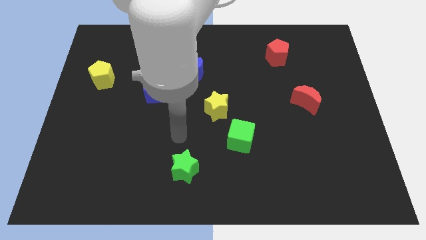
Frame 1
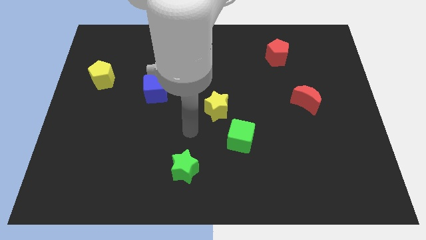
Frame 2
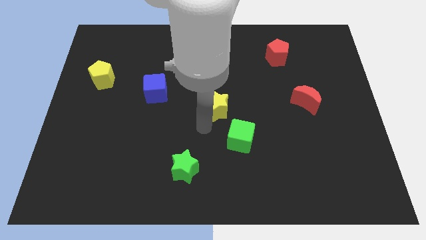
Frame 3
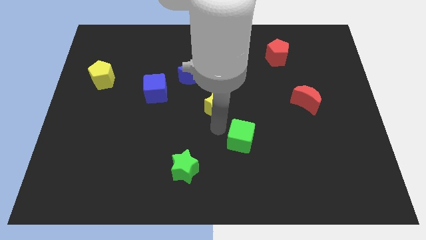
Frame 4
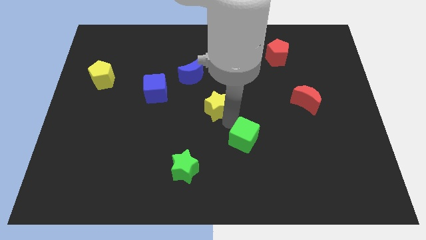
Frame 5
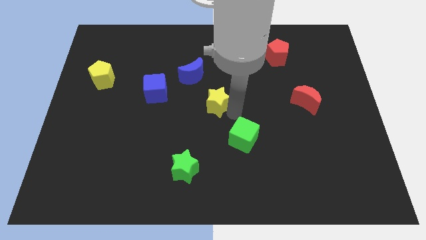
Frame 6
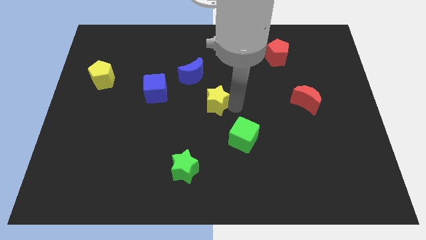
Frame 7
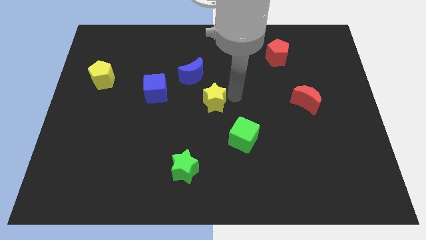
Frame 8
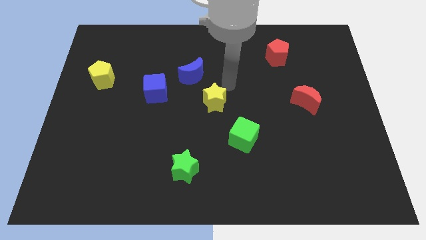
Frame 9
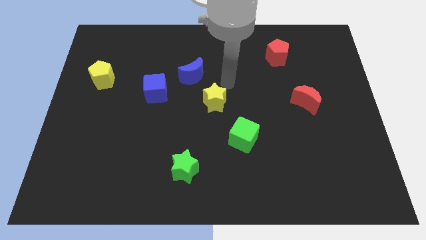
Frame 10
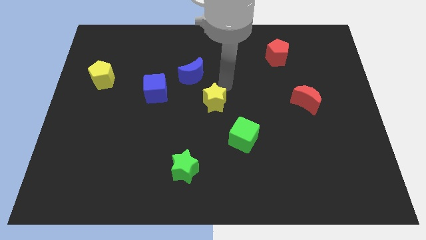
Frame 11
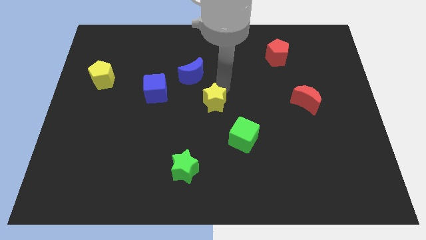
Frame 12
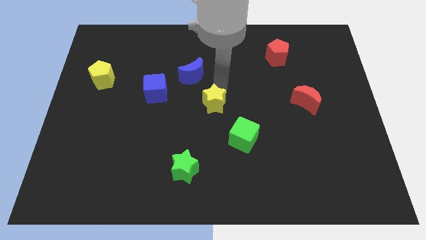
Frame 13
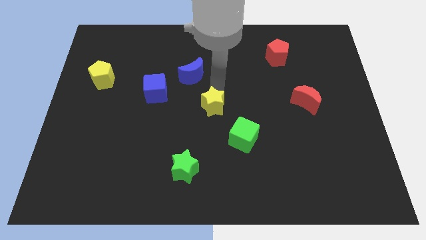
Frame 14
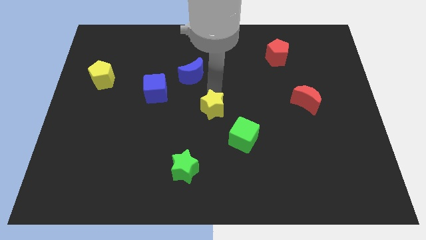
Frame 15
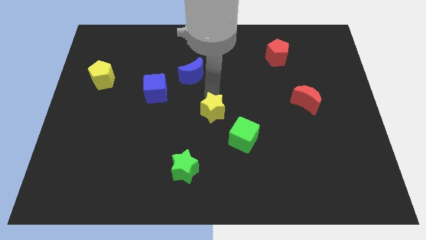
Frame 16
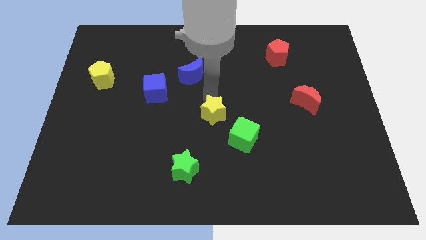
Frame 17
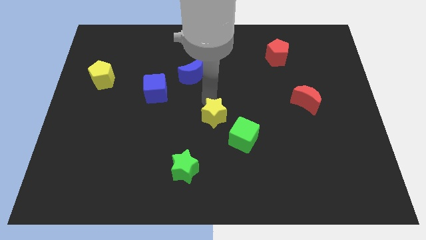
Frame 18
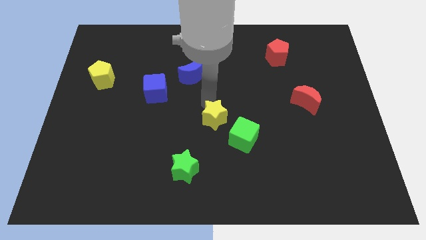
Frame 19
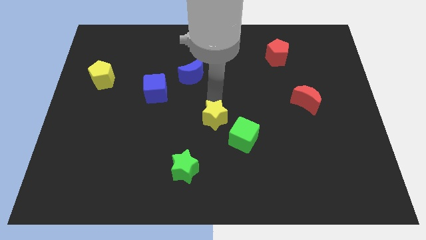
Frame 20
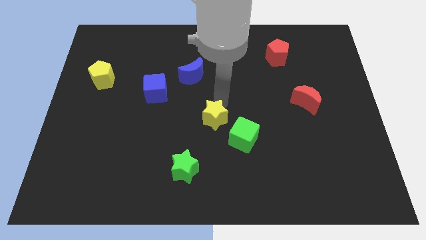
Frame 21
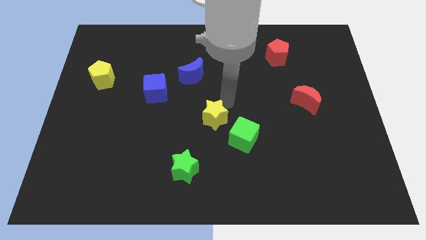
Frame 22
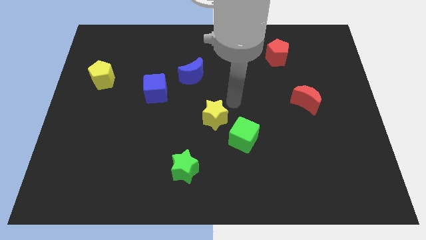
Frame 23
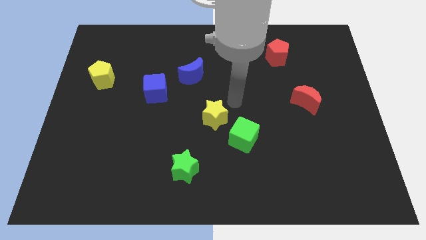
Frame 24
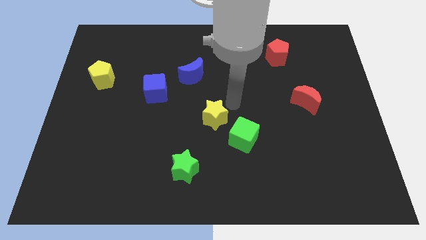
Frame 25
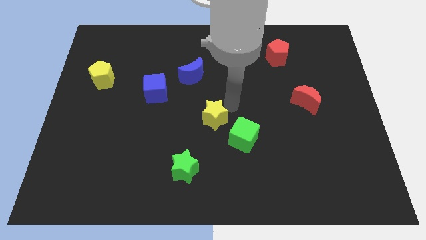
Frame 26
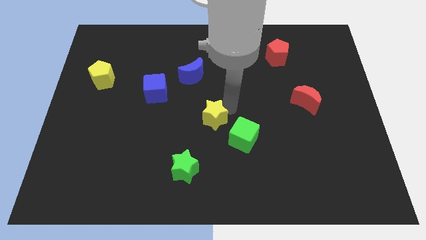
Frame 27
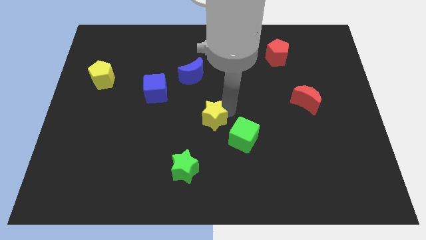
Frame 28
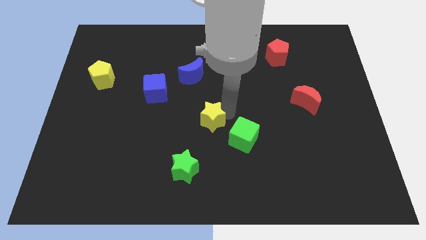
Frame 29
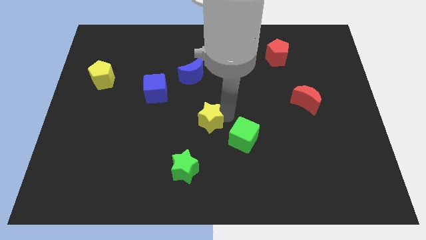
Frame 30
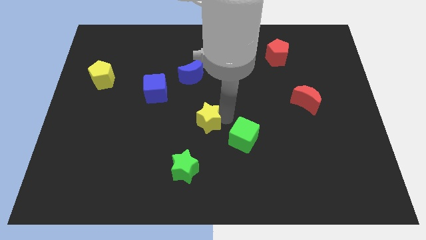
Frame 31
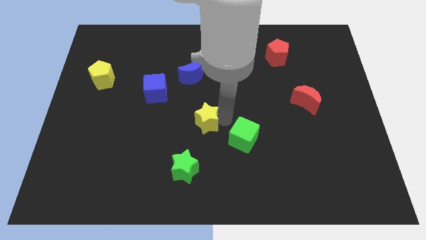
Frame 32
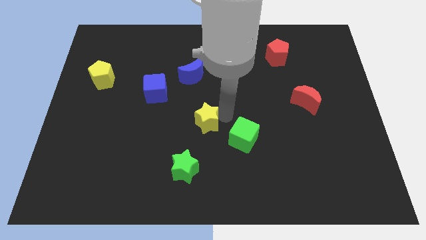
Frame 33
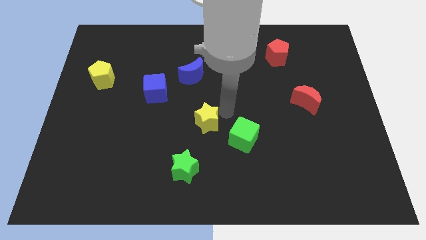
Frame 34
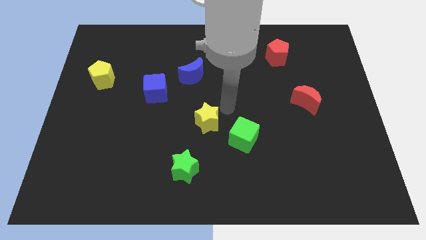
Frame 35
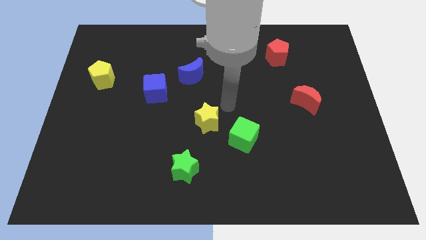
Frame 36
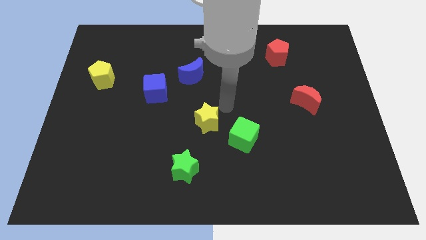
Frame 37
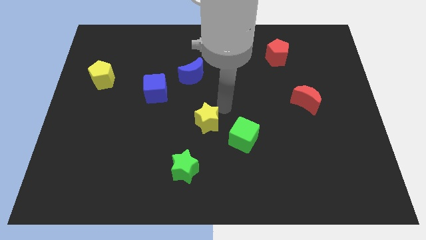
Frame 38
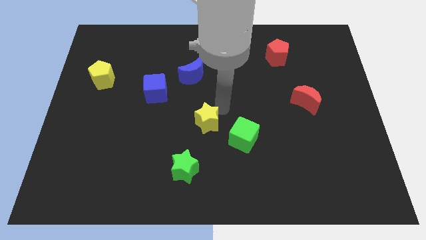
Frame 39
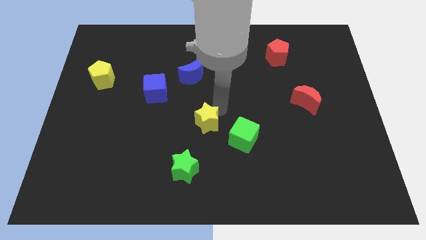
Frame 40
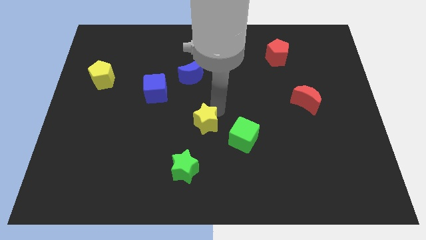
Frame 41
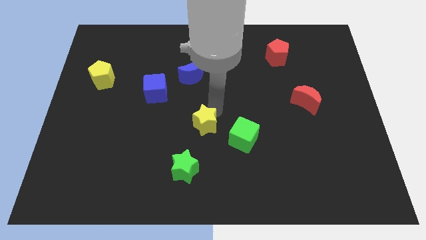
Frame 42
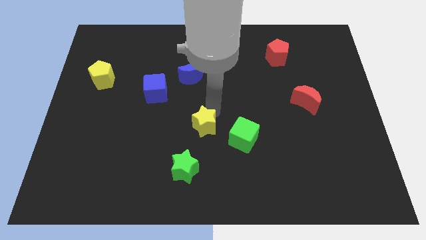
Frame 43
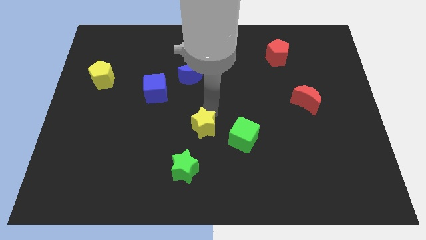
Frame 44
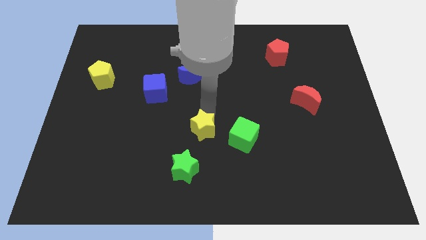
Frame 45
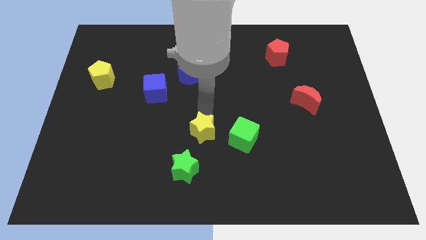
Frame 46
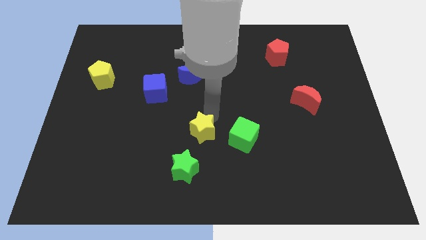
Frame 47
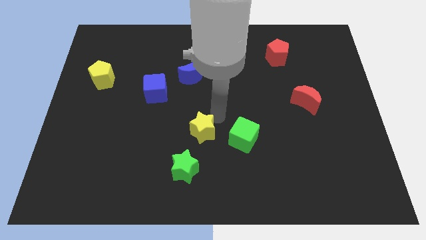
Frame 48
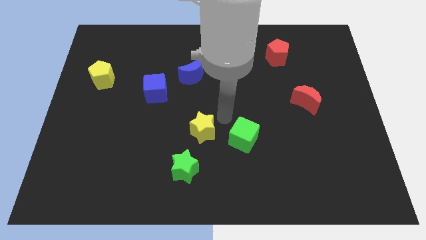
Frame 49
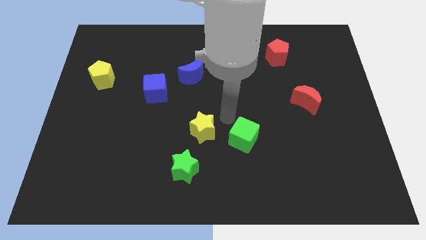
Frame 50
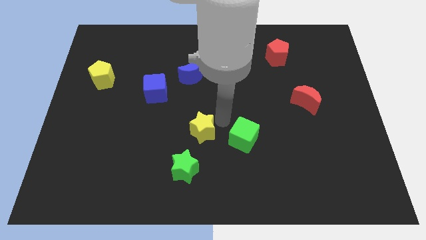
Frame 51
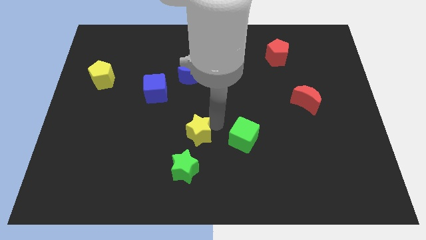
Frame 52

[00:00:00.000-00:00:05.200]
slightly push the yellow star diagonally down and to the left

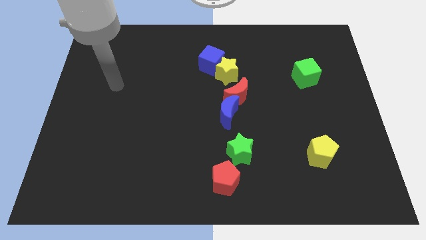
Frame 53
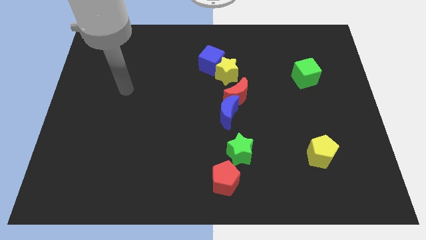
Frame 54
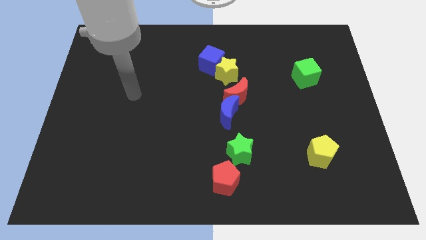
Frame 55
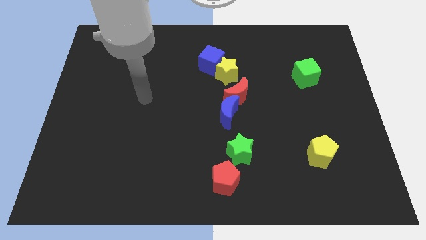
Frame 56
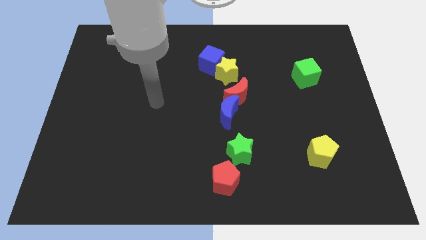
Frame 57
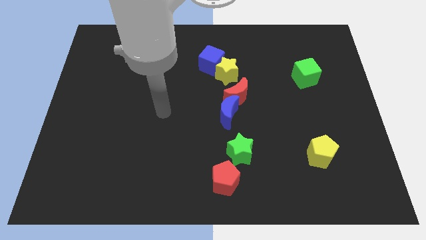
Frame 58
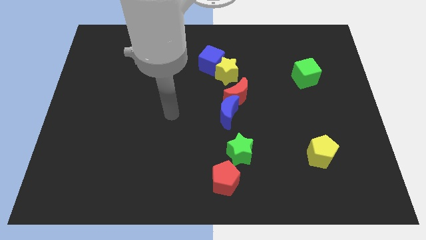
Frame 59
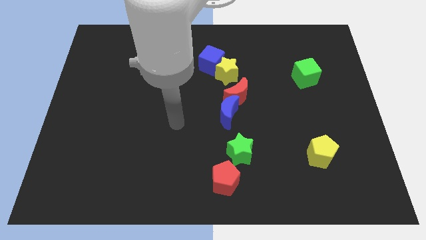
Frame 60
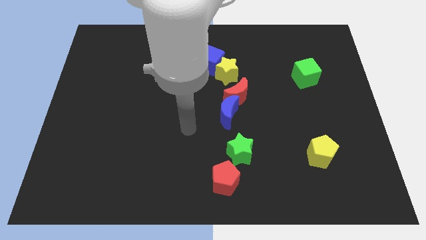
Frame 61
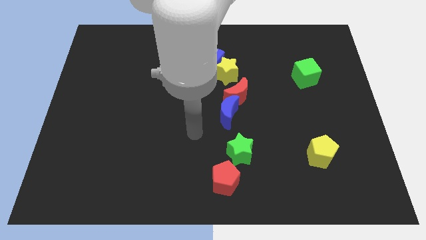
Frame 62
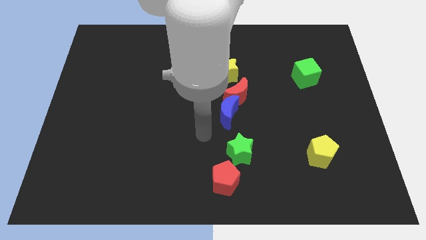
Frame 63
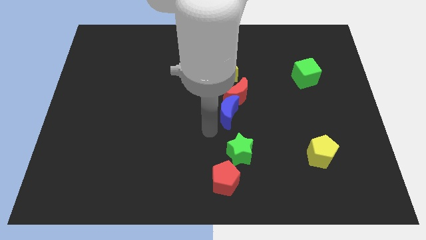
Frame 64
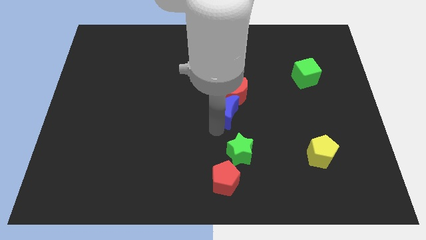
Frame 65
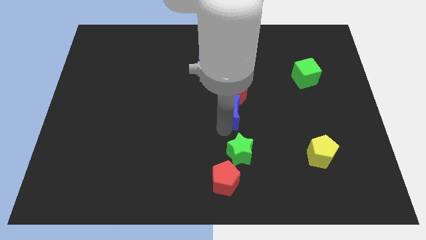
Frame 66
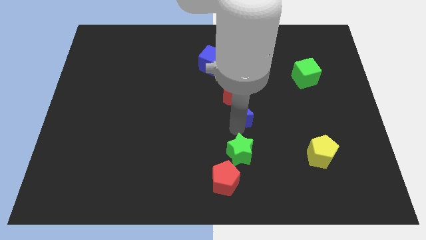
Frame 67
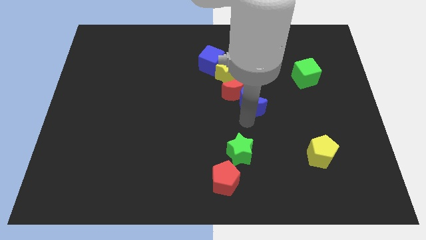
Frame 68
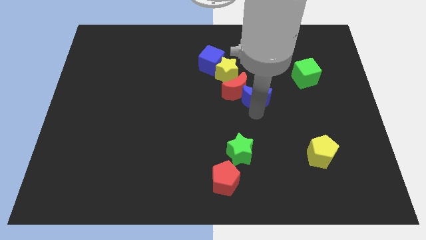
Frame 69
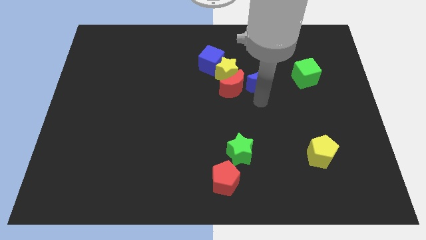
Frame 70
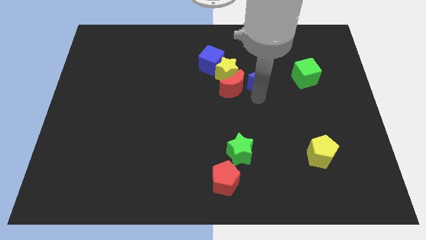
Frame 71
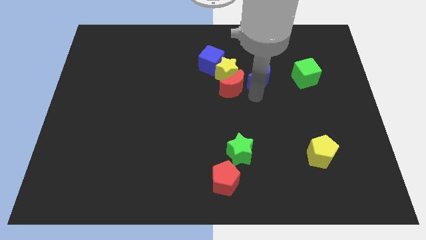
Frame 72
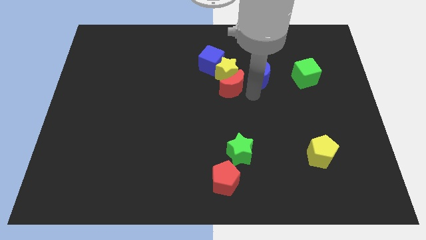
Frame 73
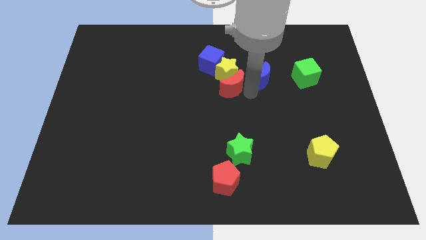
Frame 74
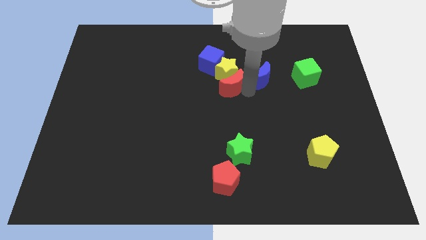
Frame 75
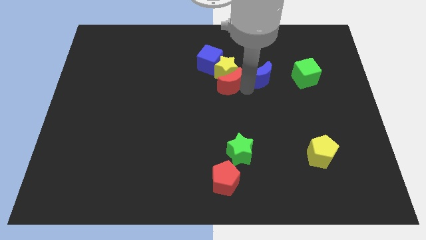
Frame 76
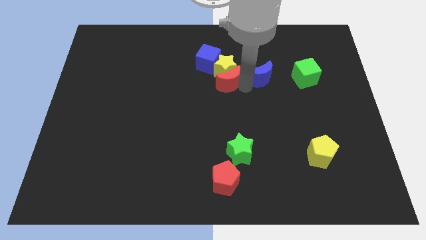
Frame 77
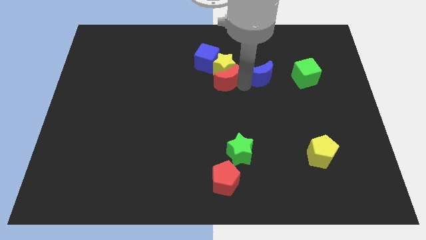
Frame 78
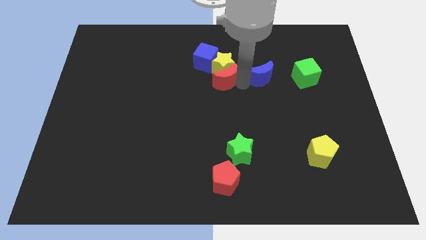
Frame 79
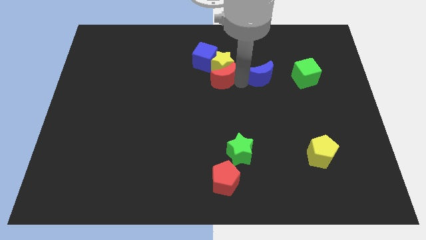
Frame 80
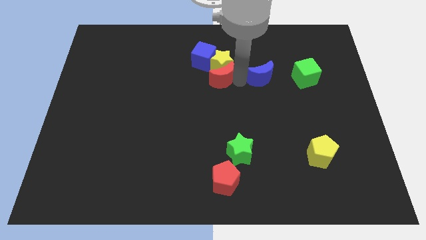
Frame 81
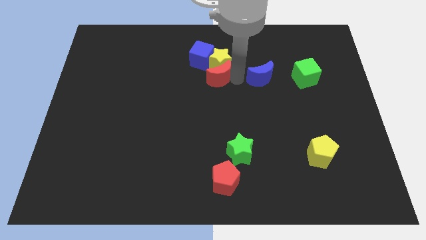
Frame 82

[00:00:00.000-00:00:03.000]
slide the red moon diagonally upwards and left a little

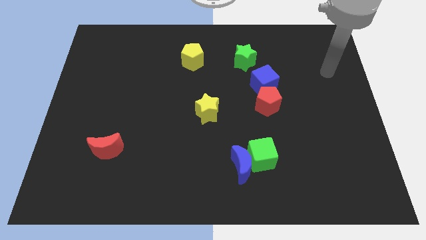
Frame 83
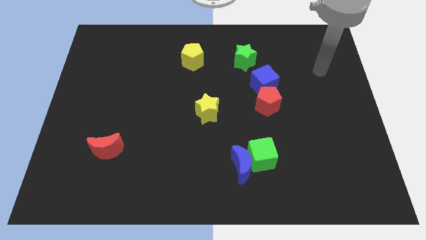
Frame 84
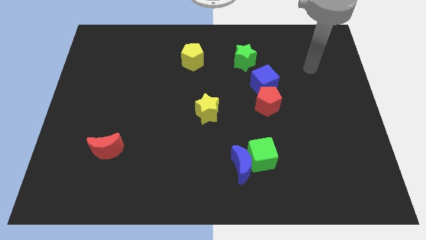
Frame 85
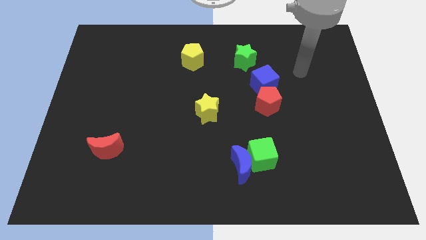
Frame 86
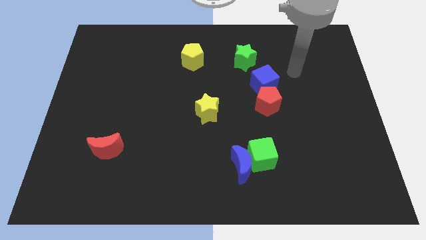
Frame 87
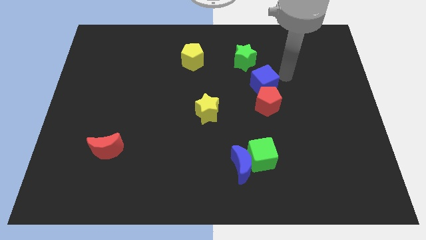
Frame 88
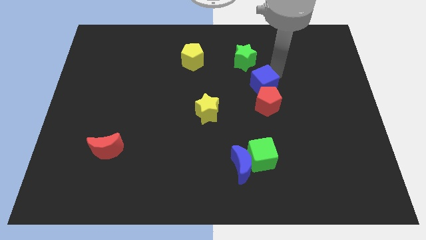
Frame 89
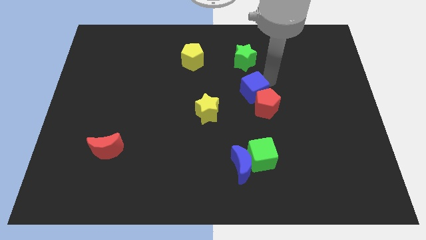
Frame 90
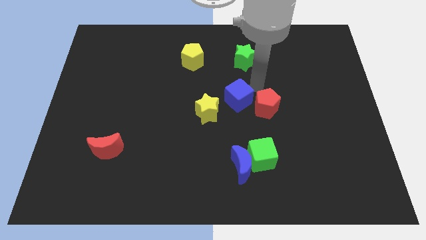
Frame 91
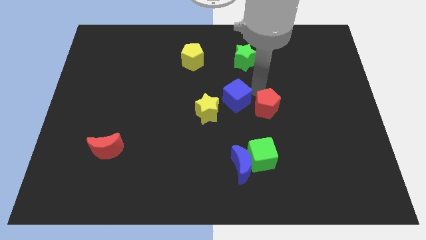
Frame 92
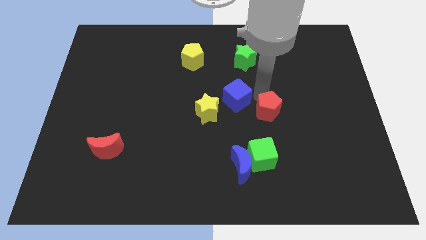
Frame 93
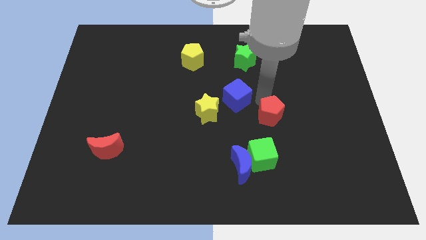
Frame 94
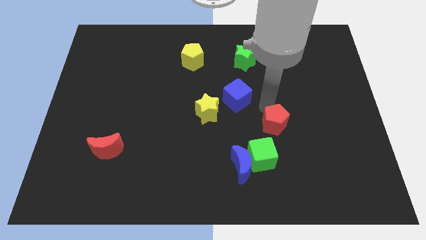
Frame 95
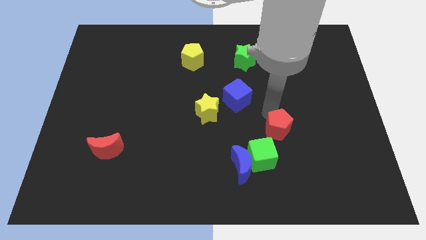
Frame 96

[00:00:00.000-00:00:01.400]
push the red pentagon somewhat down
